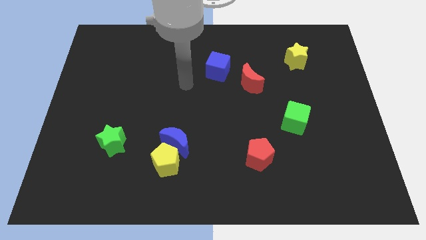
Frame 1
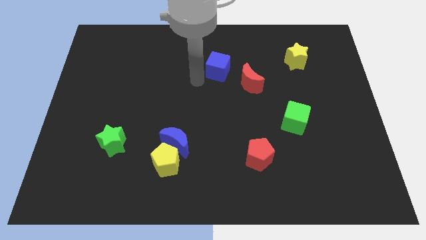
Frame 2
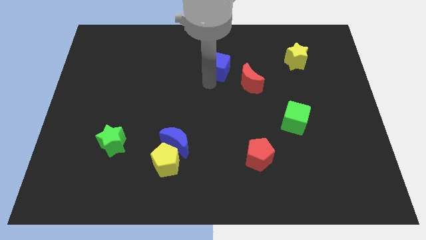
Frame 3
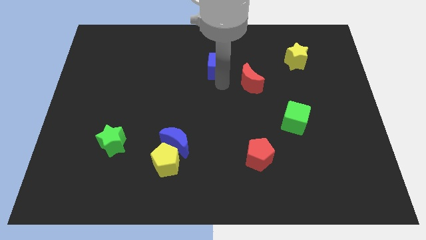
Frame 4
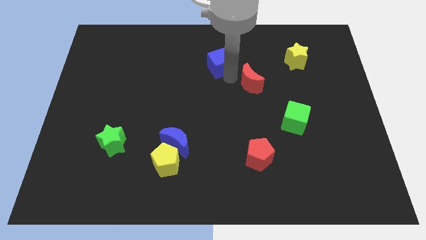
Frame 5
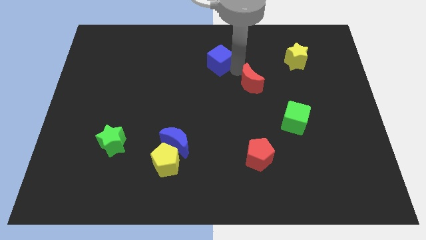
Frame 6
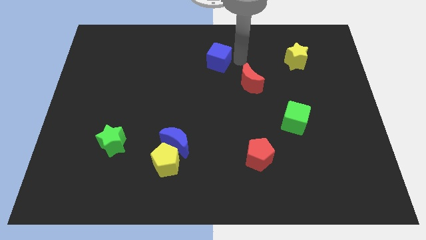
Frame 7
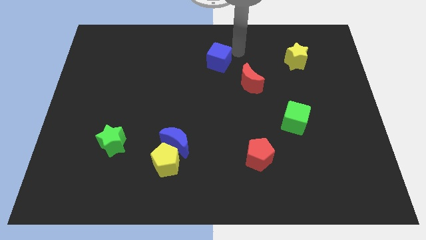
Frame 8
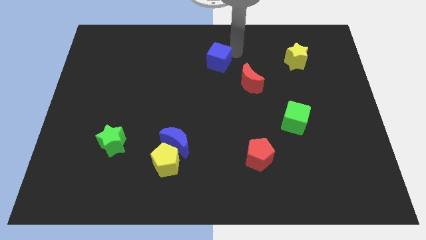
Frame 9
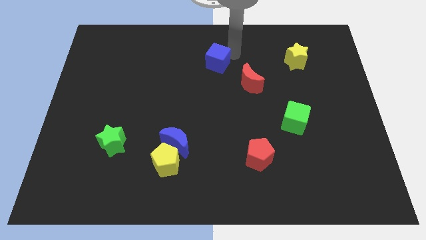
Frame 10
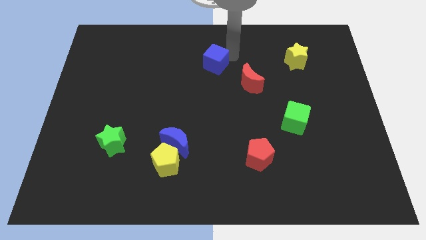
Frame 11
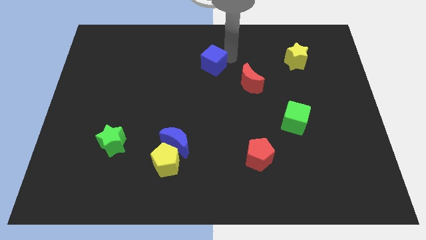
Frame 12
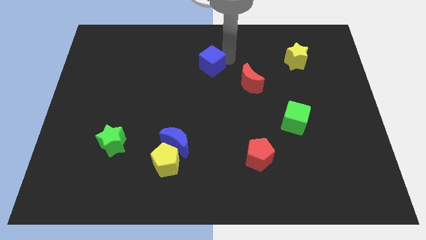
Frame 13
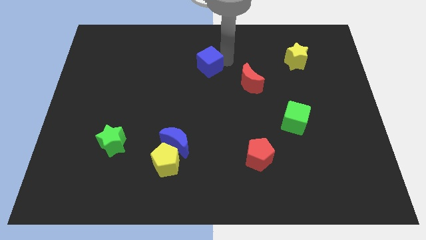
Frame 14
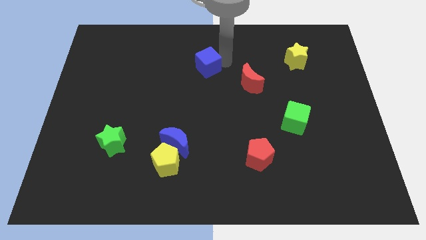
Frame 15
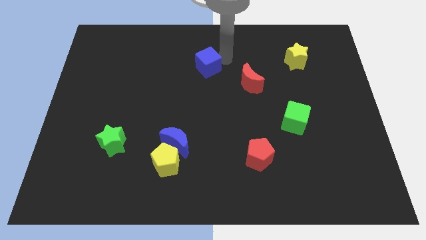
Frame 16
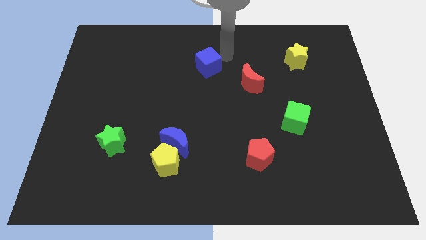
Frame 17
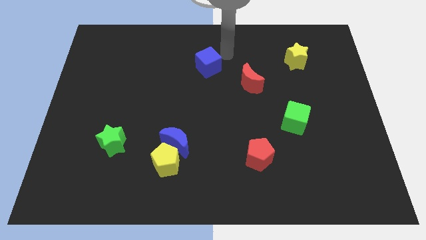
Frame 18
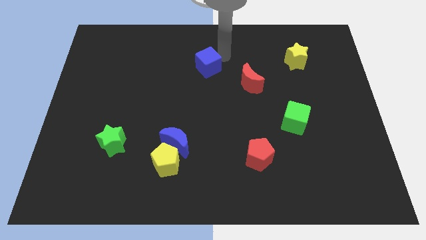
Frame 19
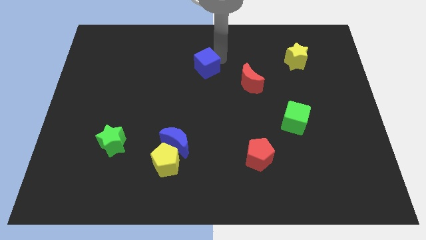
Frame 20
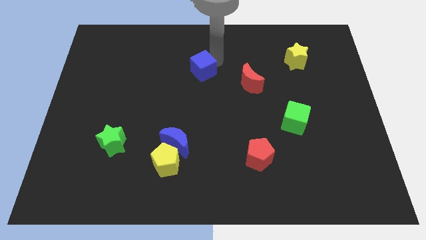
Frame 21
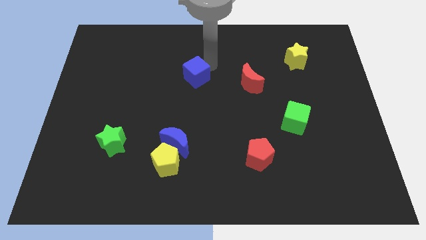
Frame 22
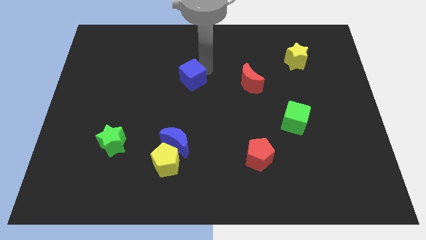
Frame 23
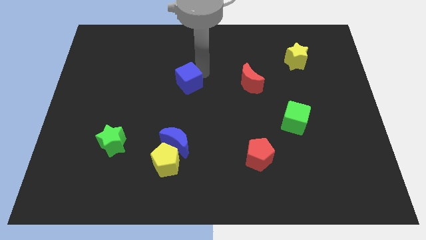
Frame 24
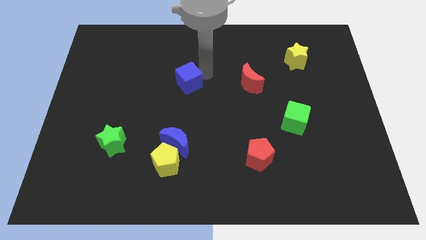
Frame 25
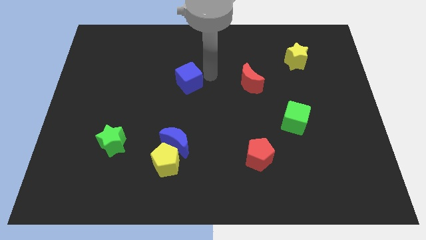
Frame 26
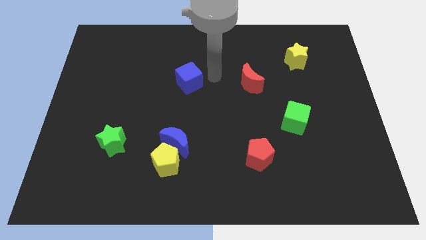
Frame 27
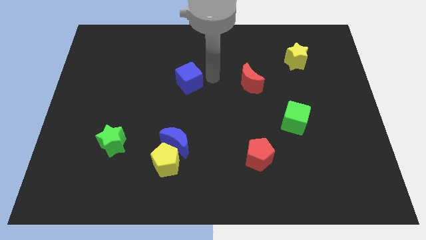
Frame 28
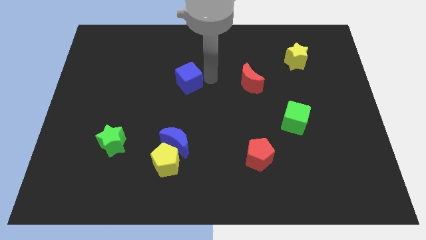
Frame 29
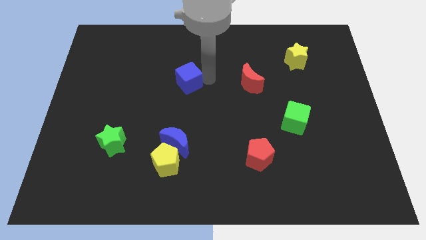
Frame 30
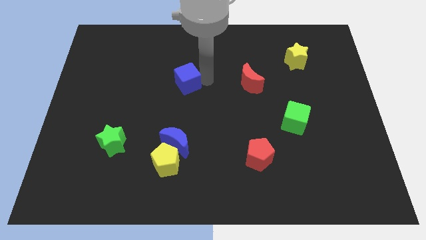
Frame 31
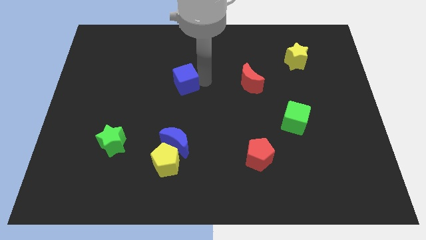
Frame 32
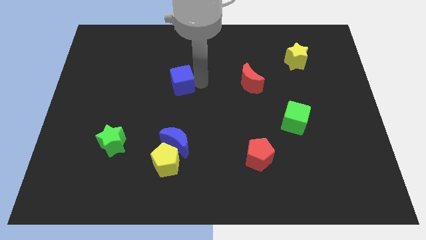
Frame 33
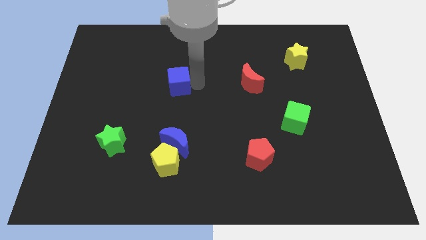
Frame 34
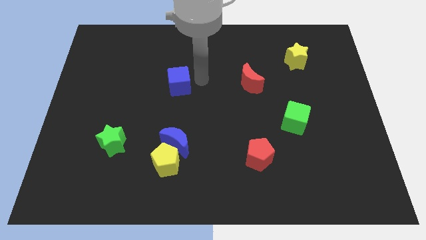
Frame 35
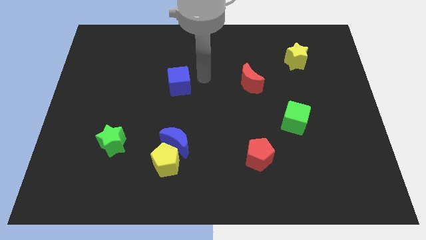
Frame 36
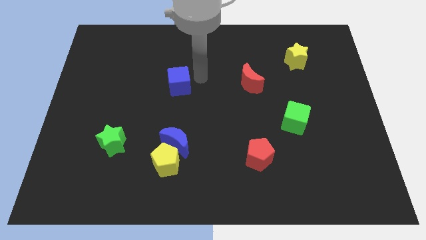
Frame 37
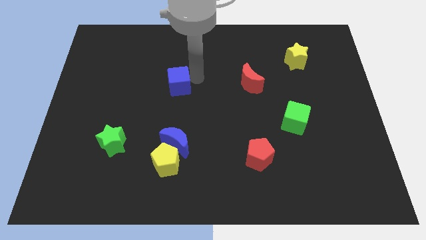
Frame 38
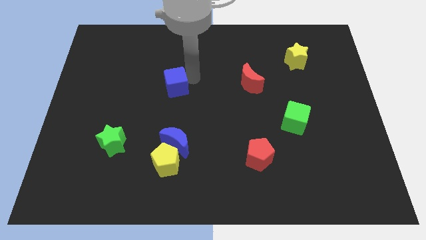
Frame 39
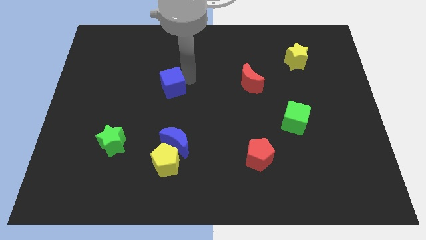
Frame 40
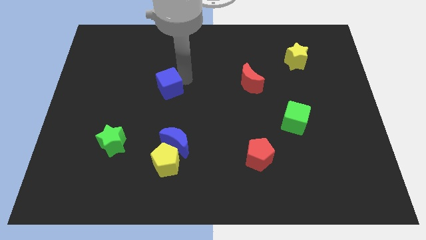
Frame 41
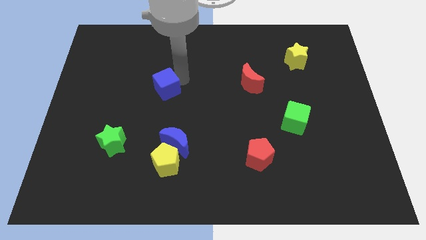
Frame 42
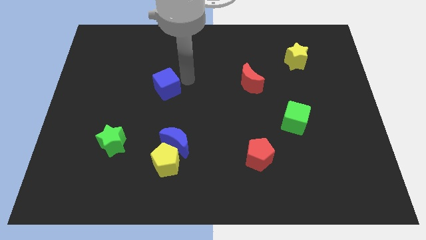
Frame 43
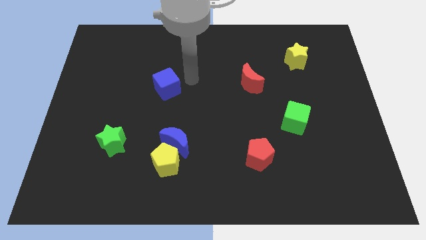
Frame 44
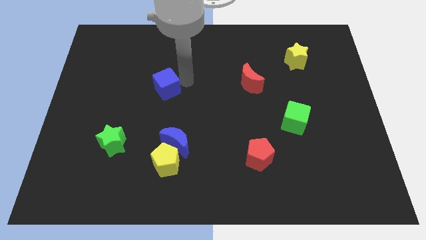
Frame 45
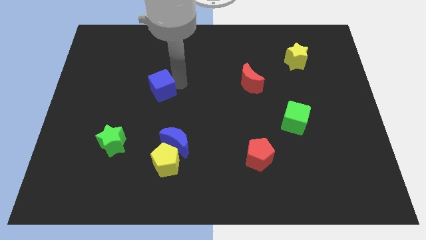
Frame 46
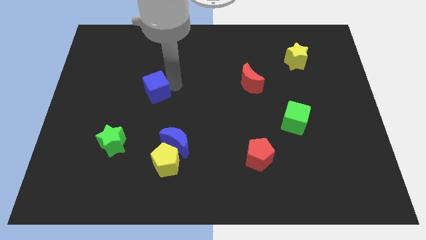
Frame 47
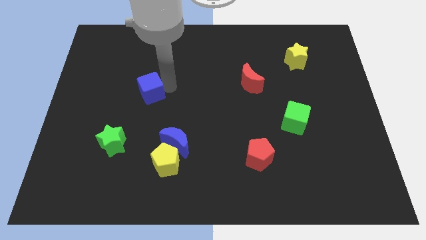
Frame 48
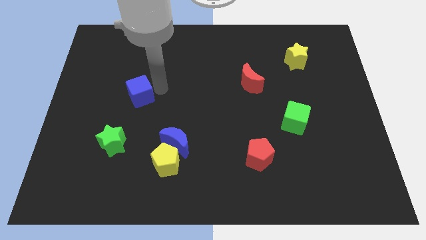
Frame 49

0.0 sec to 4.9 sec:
slide the blue cube above the green star

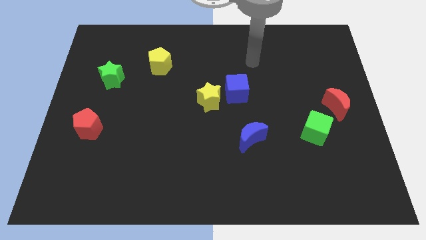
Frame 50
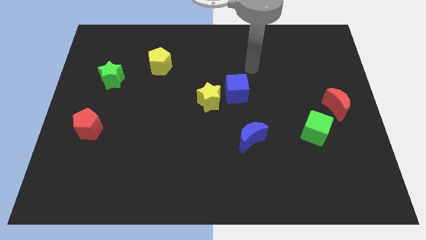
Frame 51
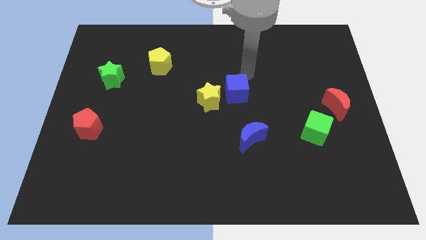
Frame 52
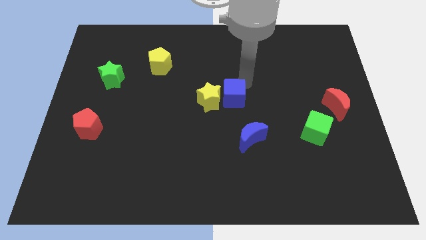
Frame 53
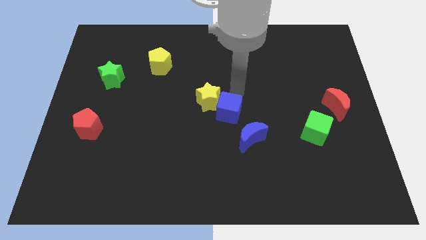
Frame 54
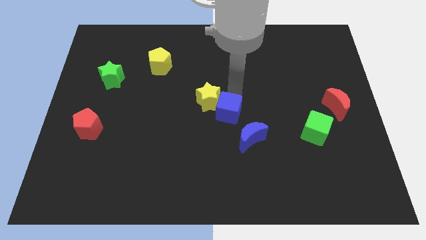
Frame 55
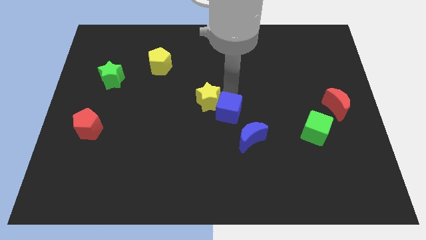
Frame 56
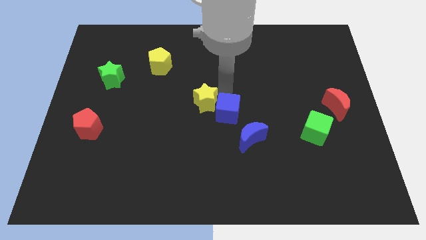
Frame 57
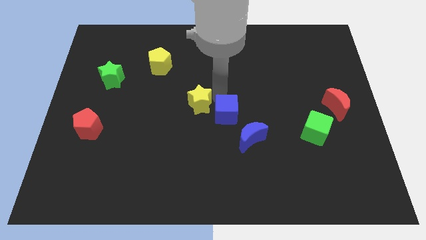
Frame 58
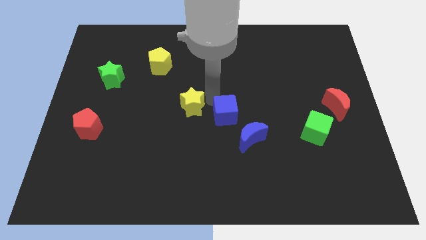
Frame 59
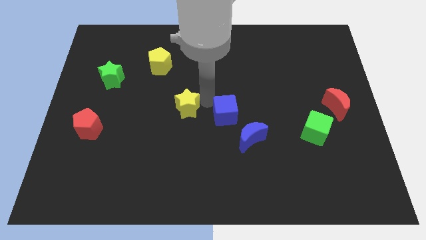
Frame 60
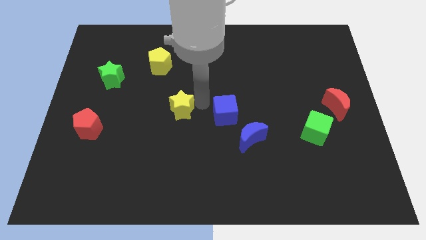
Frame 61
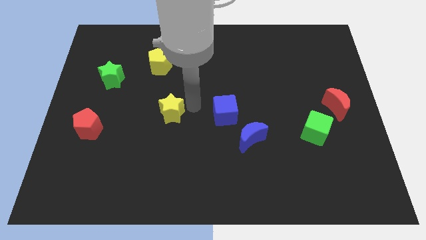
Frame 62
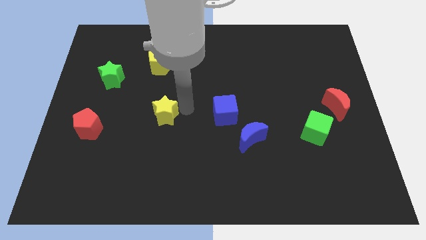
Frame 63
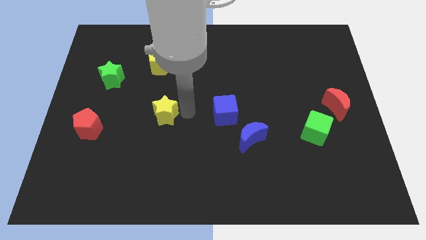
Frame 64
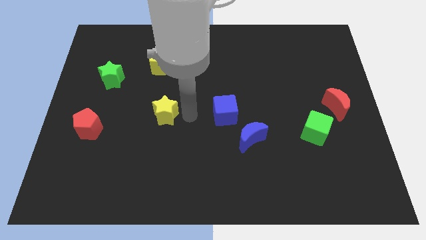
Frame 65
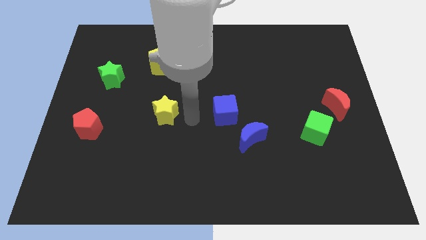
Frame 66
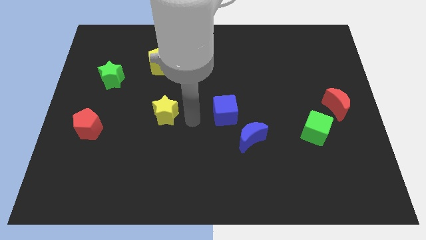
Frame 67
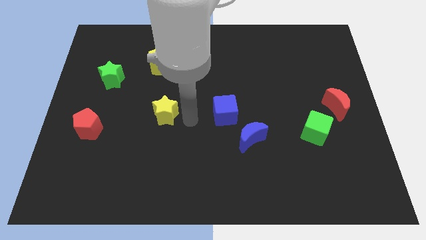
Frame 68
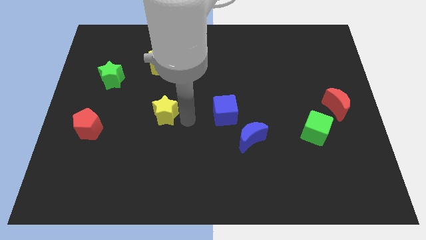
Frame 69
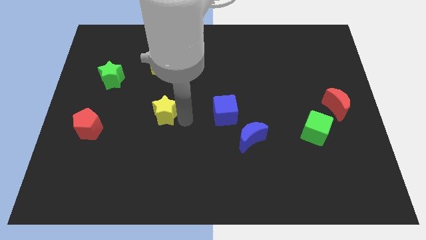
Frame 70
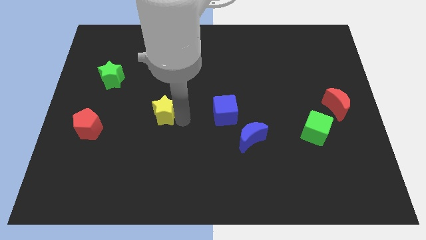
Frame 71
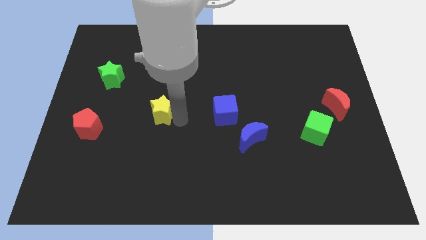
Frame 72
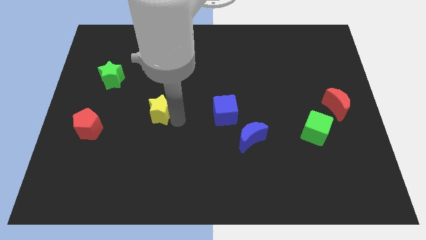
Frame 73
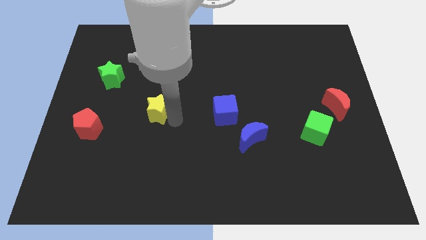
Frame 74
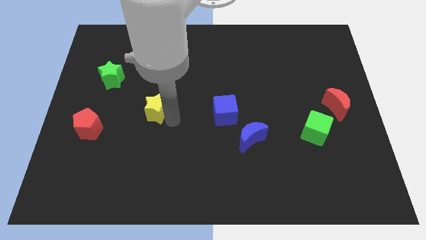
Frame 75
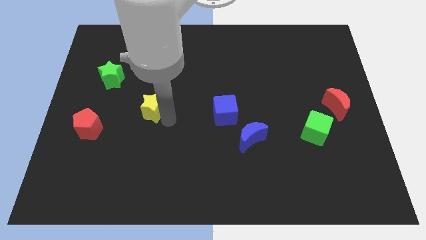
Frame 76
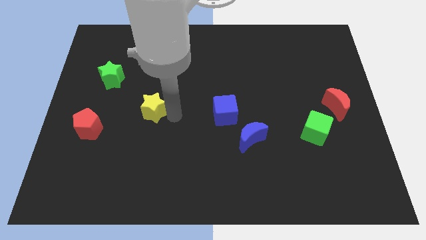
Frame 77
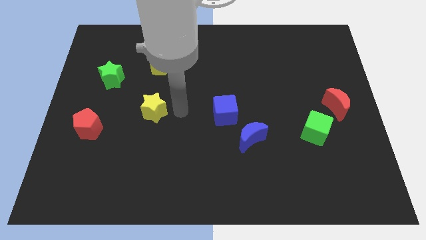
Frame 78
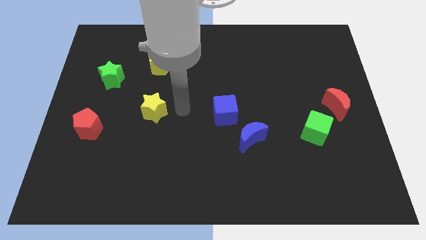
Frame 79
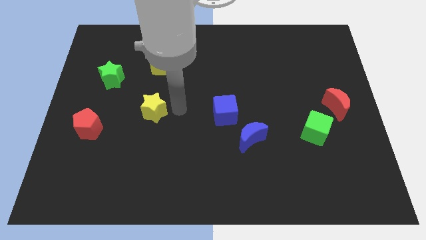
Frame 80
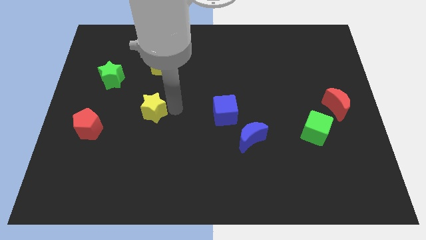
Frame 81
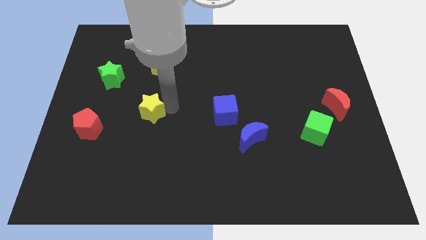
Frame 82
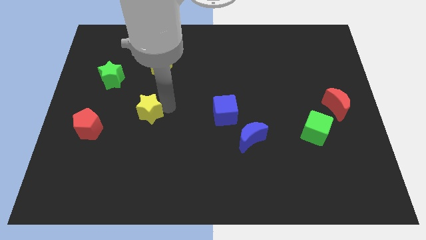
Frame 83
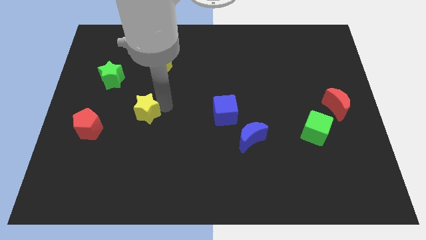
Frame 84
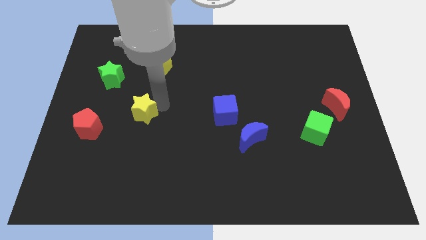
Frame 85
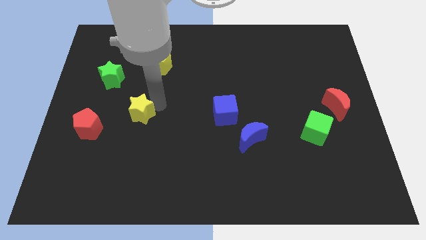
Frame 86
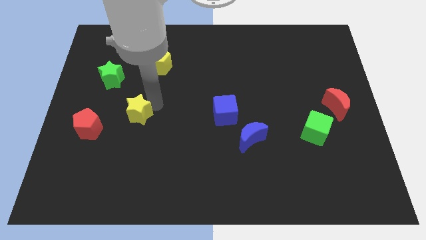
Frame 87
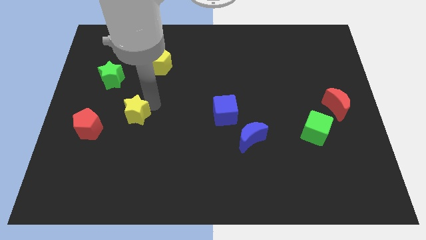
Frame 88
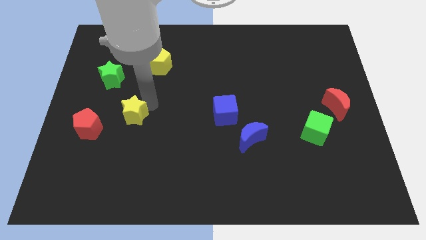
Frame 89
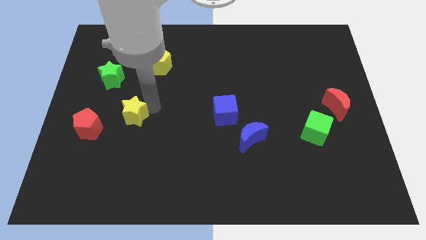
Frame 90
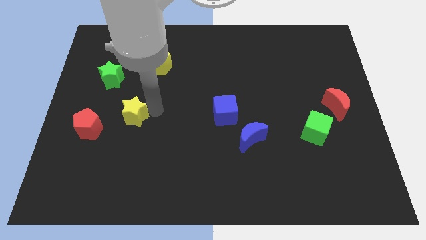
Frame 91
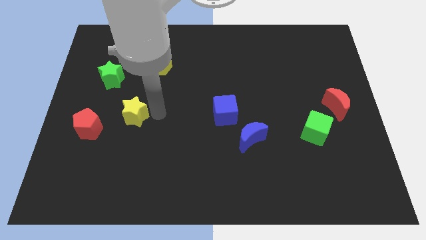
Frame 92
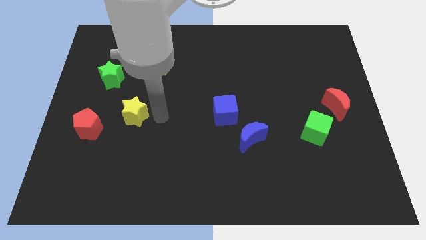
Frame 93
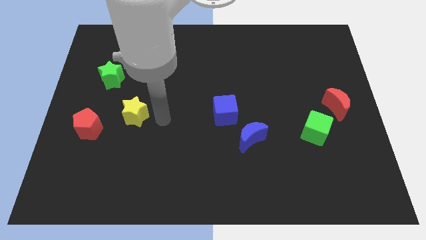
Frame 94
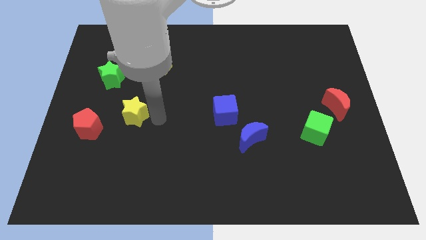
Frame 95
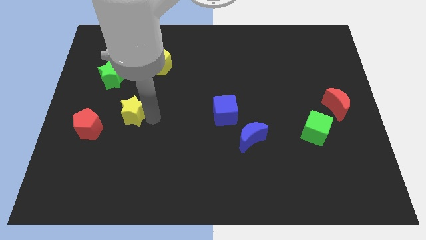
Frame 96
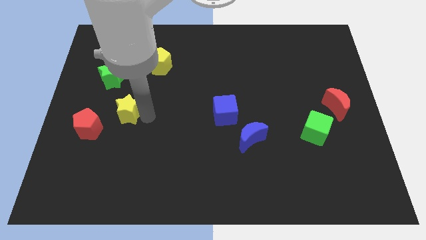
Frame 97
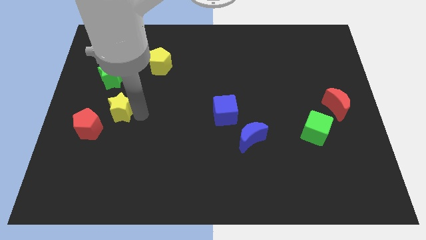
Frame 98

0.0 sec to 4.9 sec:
push the yellow star to the bottom side of the green star
